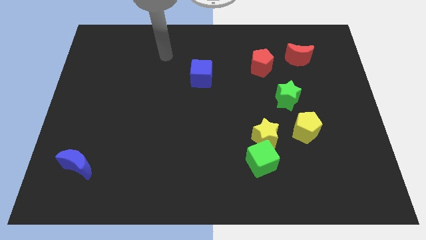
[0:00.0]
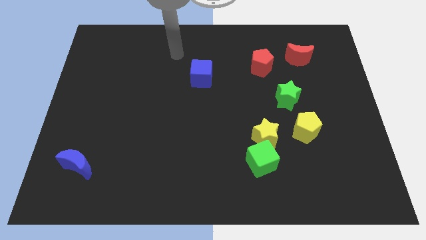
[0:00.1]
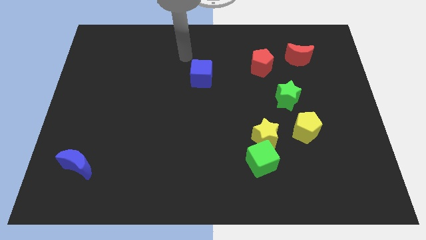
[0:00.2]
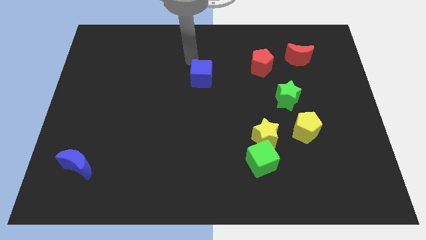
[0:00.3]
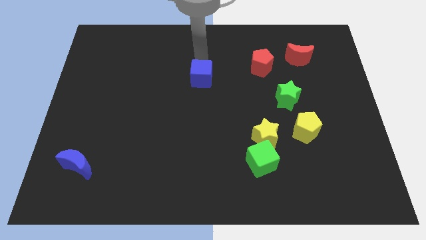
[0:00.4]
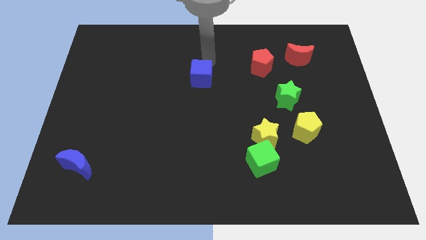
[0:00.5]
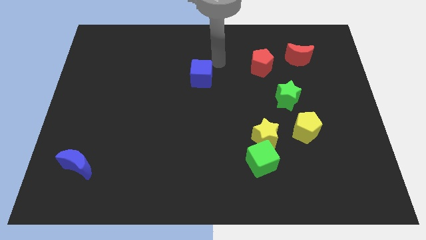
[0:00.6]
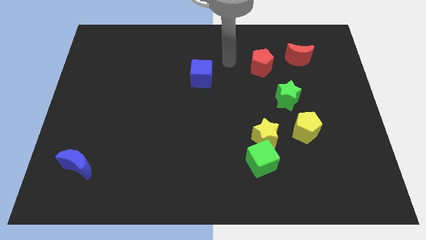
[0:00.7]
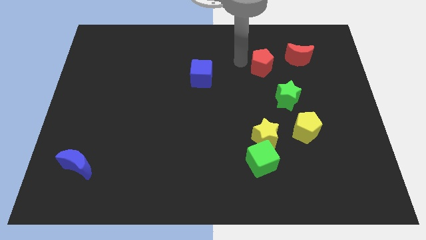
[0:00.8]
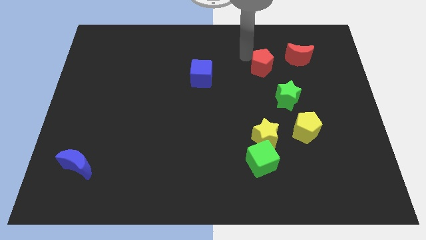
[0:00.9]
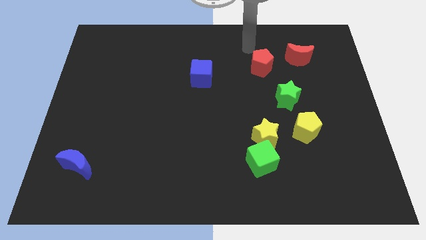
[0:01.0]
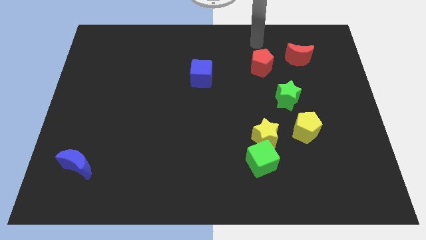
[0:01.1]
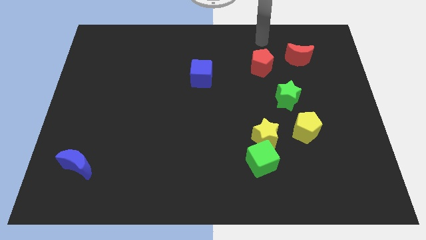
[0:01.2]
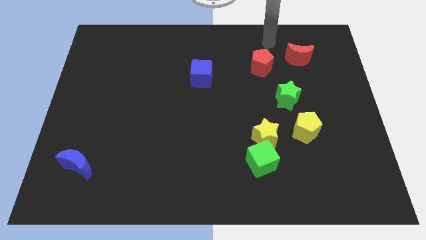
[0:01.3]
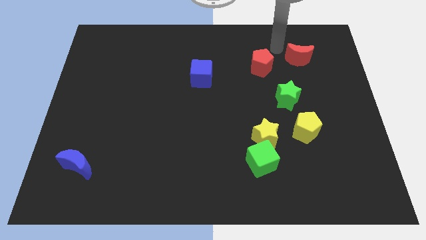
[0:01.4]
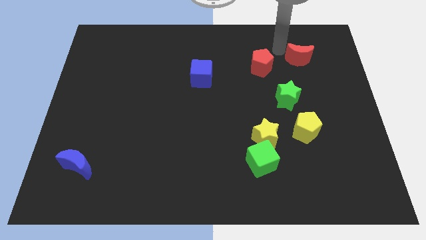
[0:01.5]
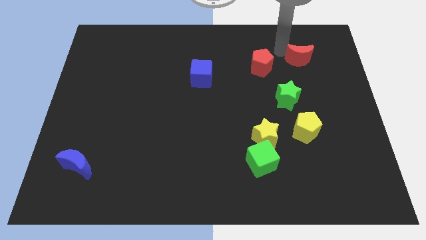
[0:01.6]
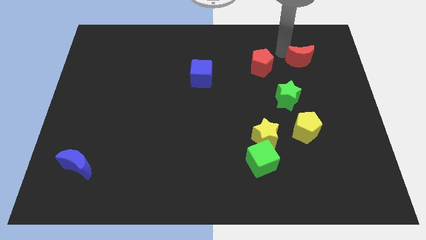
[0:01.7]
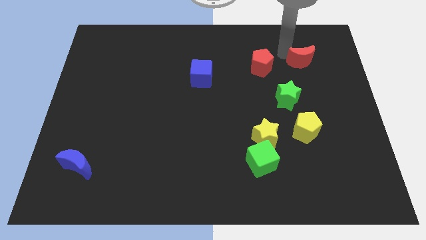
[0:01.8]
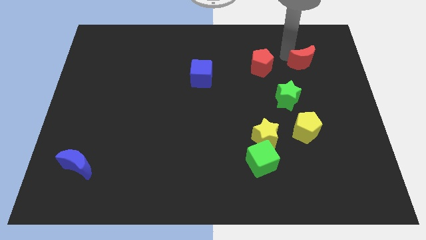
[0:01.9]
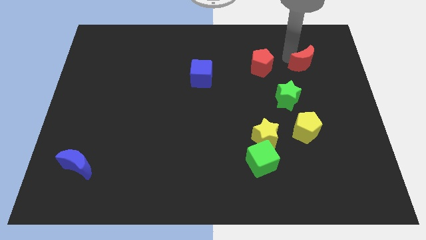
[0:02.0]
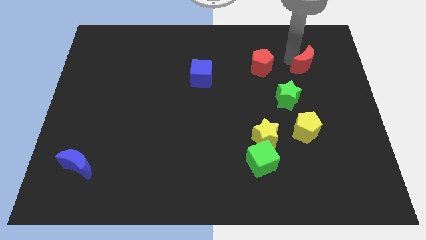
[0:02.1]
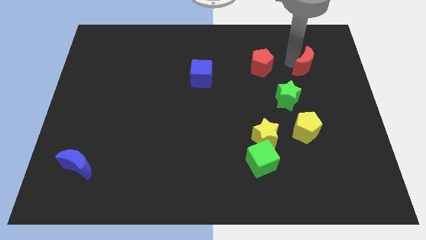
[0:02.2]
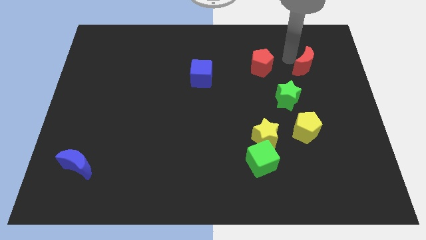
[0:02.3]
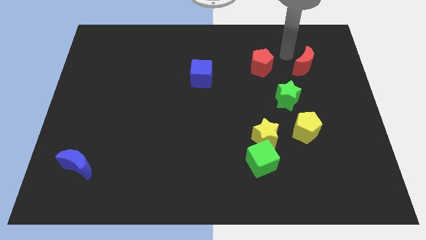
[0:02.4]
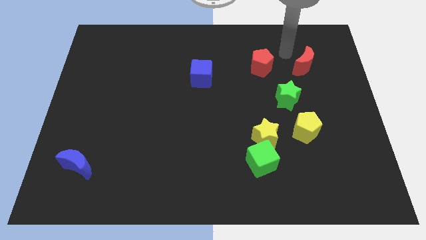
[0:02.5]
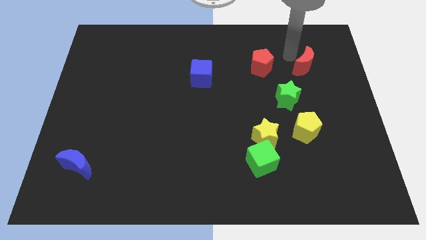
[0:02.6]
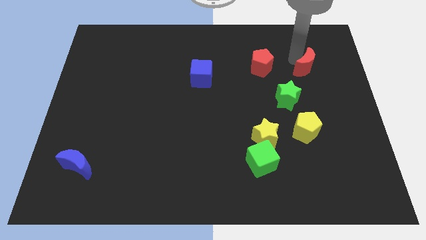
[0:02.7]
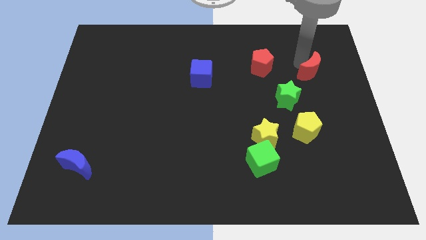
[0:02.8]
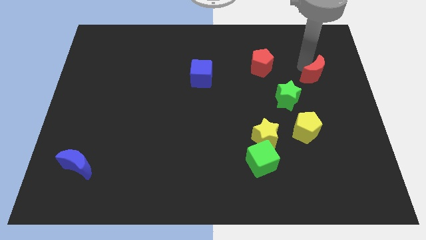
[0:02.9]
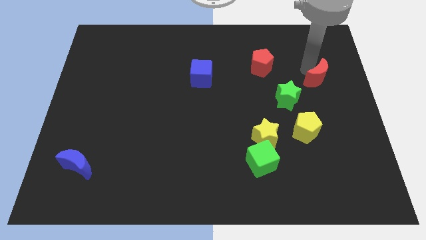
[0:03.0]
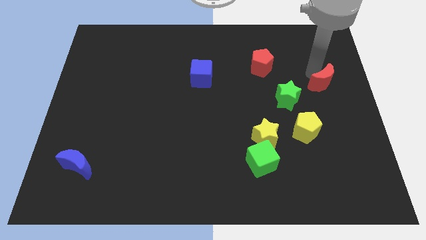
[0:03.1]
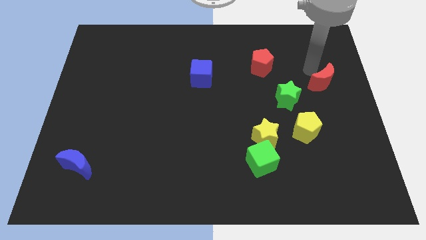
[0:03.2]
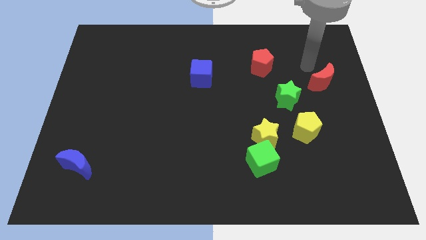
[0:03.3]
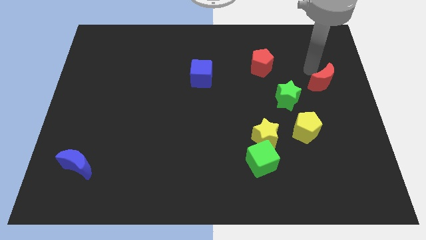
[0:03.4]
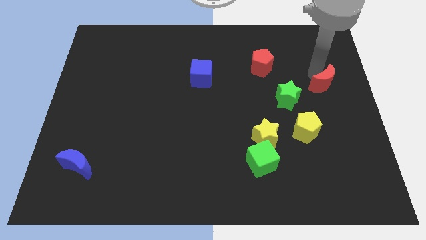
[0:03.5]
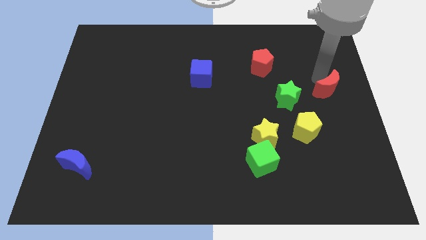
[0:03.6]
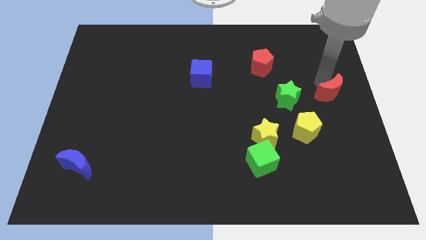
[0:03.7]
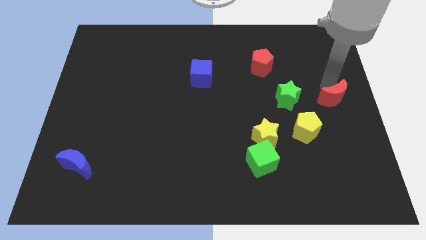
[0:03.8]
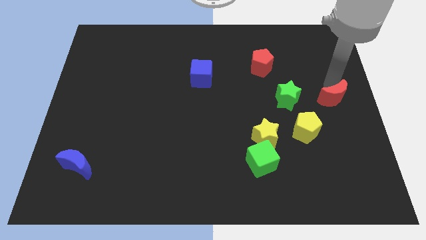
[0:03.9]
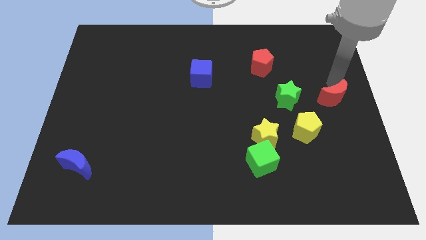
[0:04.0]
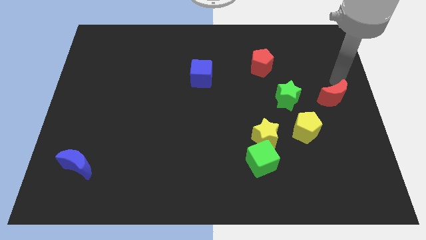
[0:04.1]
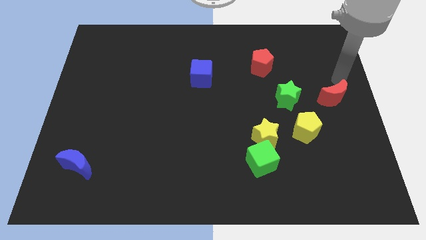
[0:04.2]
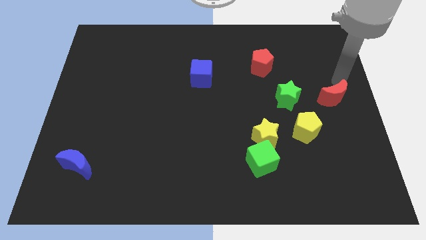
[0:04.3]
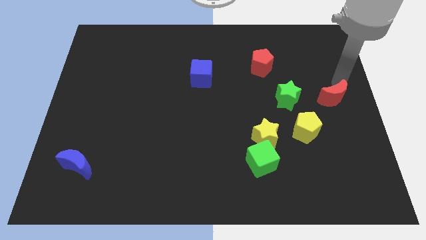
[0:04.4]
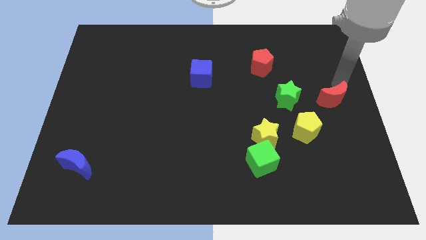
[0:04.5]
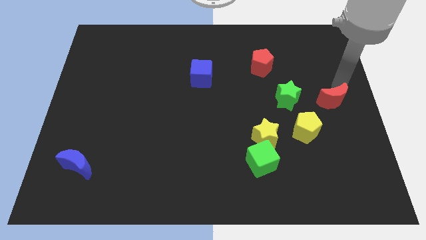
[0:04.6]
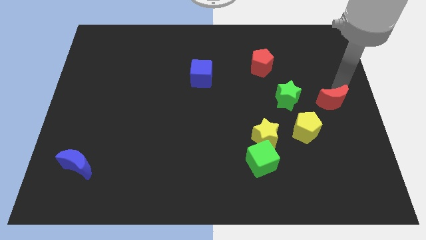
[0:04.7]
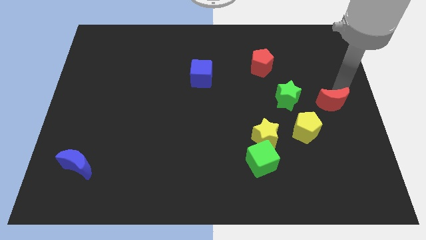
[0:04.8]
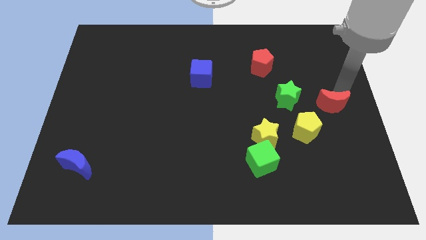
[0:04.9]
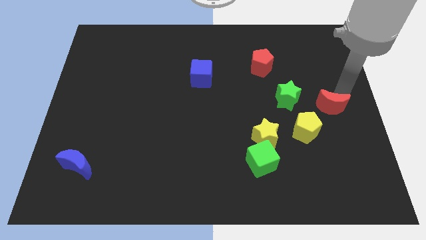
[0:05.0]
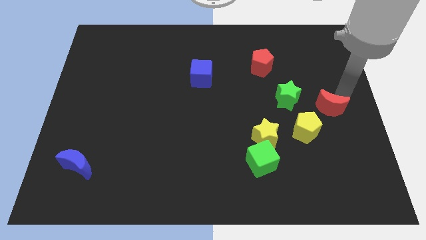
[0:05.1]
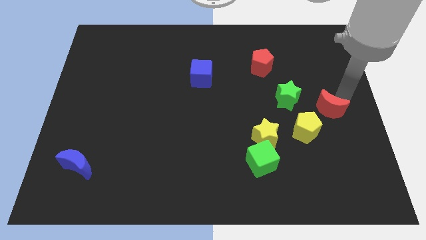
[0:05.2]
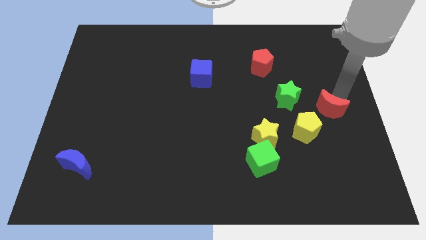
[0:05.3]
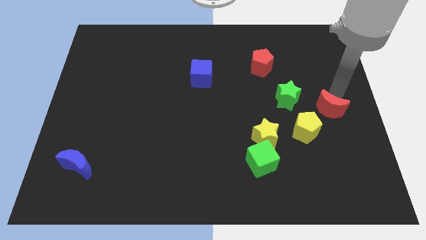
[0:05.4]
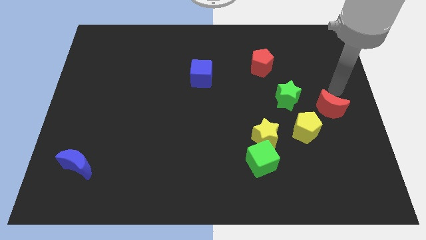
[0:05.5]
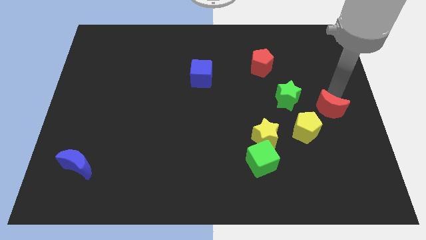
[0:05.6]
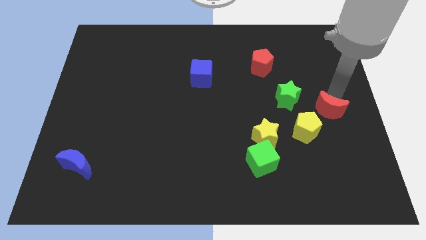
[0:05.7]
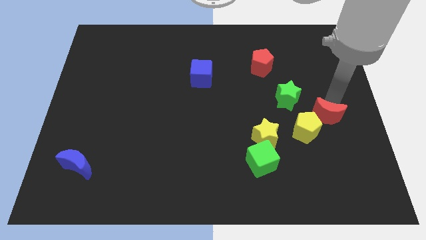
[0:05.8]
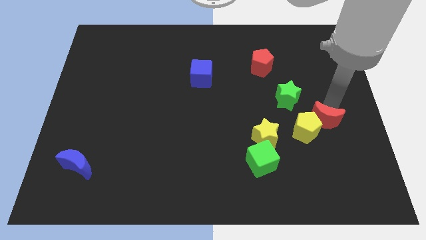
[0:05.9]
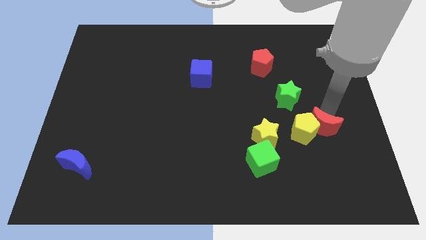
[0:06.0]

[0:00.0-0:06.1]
move the red moon down

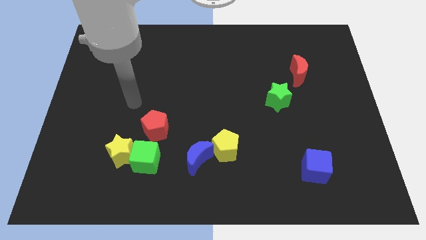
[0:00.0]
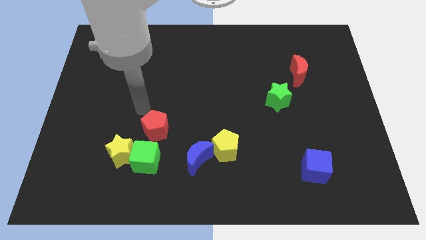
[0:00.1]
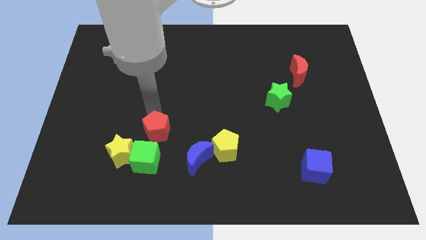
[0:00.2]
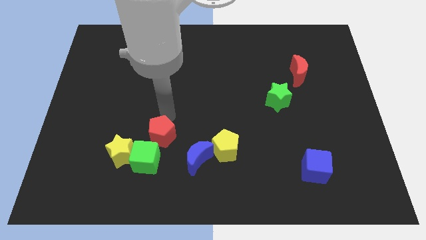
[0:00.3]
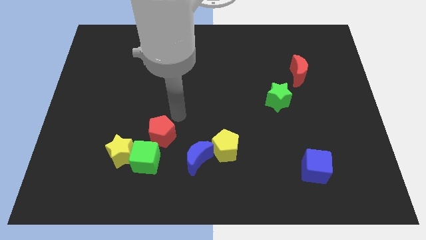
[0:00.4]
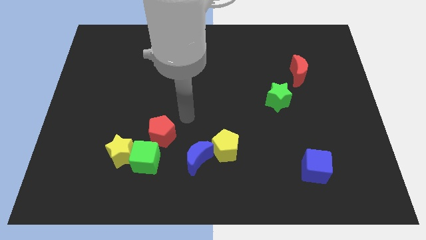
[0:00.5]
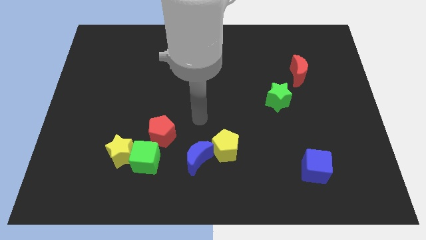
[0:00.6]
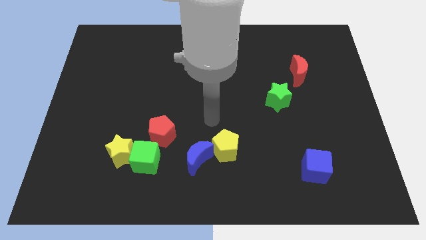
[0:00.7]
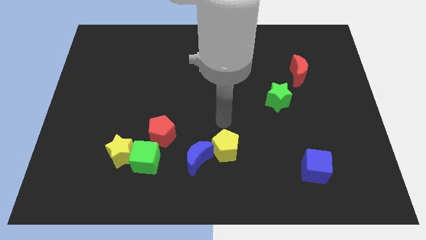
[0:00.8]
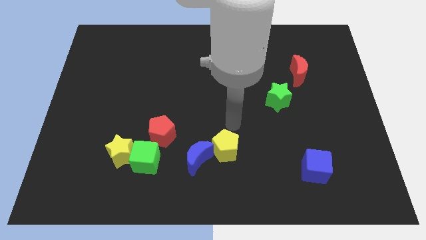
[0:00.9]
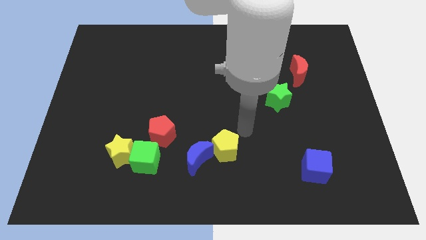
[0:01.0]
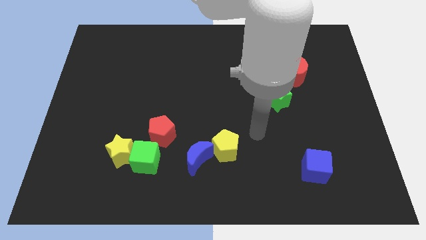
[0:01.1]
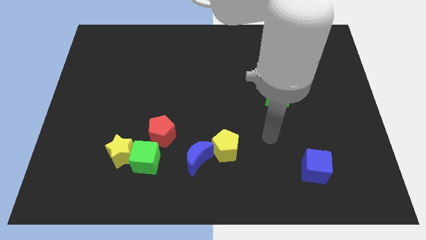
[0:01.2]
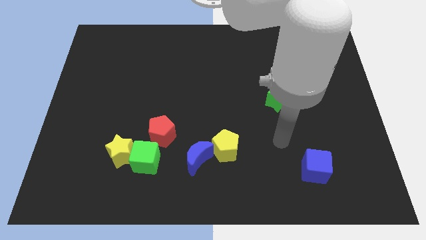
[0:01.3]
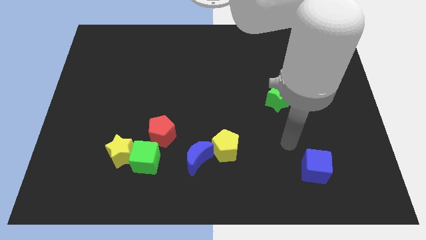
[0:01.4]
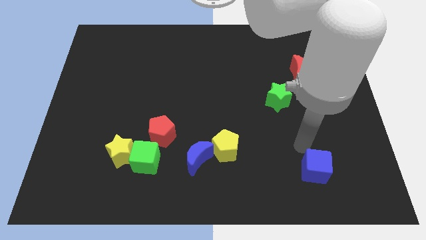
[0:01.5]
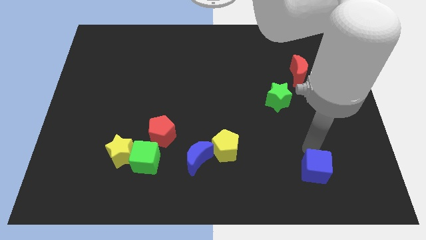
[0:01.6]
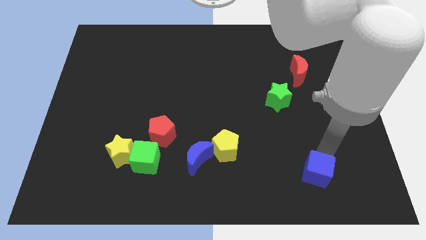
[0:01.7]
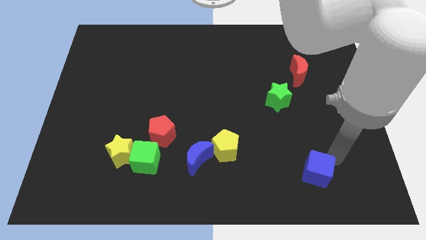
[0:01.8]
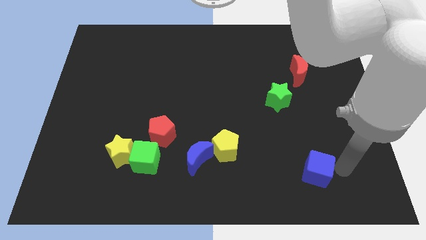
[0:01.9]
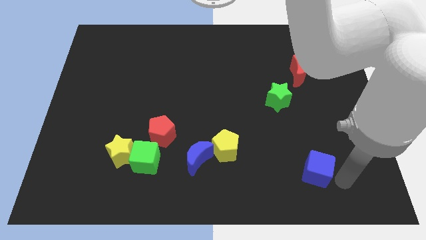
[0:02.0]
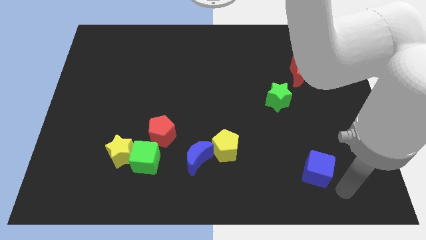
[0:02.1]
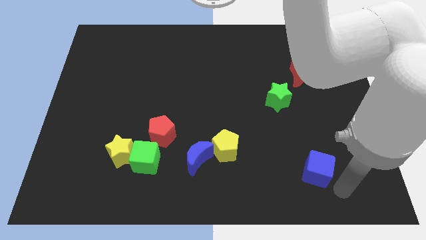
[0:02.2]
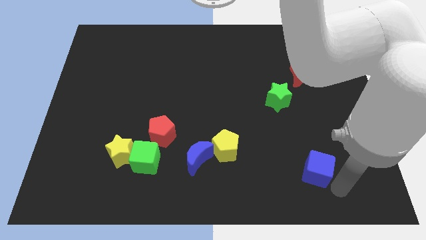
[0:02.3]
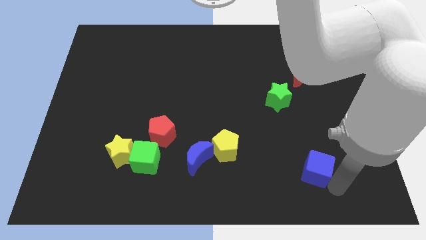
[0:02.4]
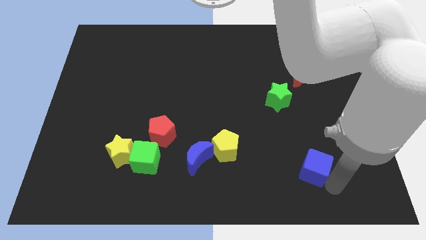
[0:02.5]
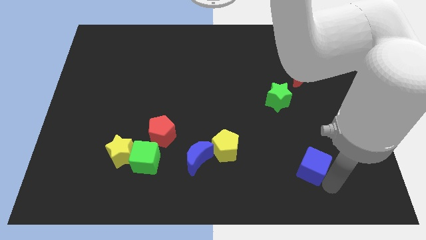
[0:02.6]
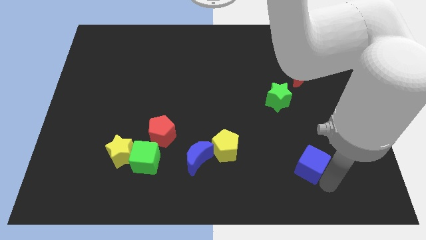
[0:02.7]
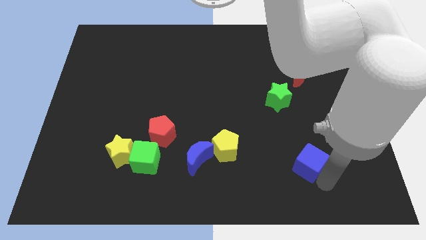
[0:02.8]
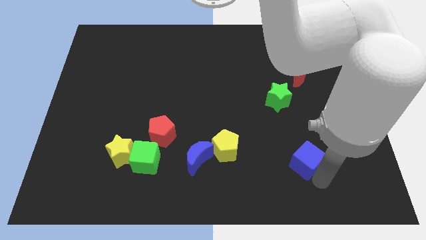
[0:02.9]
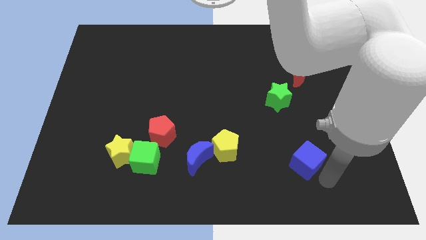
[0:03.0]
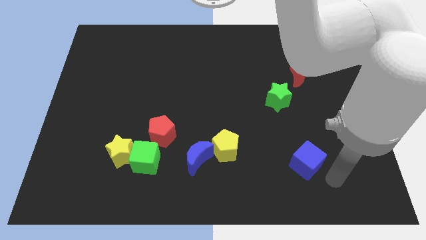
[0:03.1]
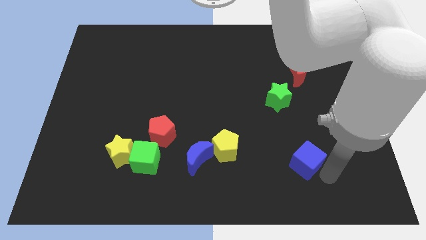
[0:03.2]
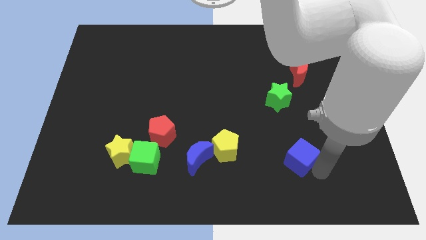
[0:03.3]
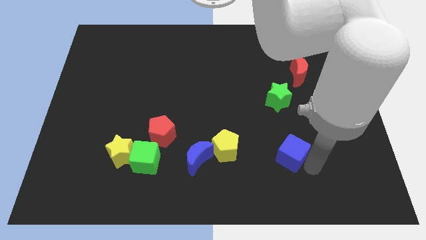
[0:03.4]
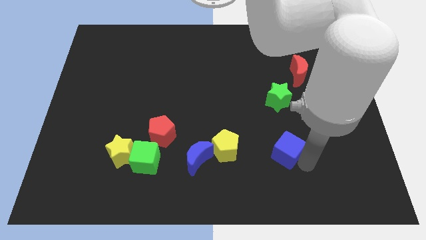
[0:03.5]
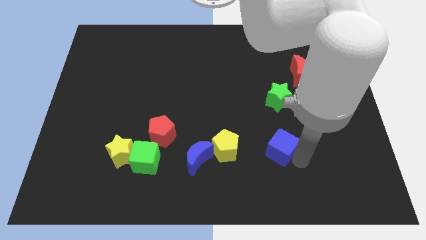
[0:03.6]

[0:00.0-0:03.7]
slide the blue cube diagonally upwards and left somewhat
